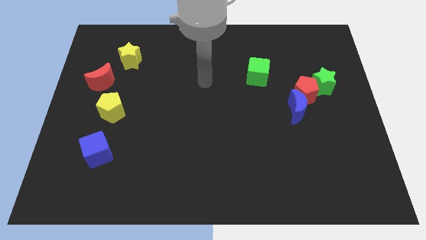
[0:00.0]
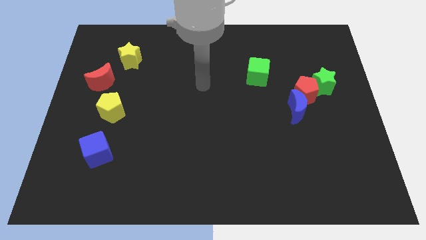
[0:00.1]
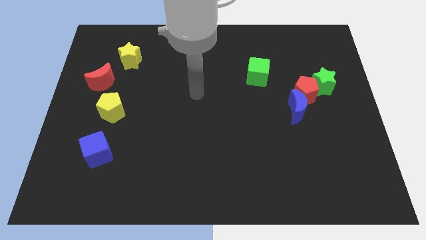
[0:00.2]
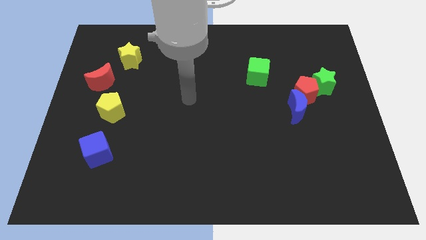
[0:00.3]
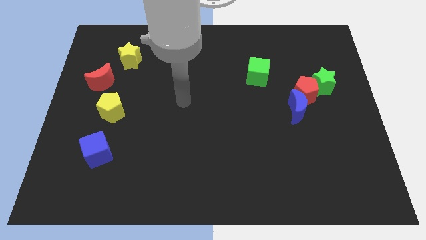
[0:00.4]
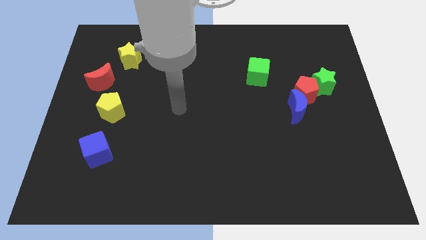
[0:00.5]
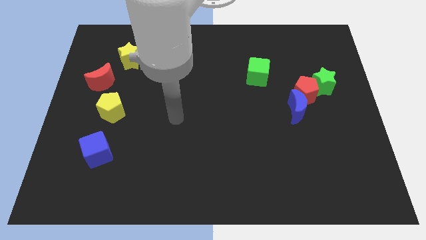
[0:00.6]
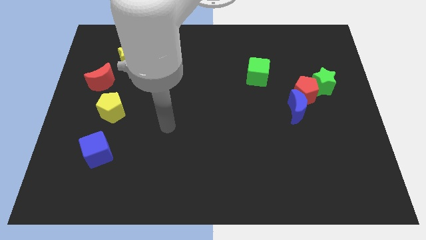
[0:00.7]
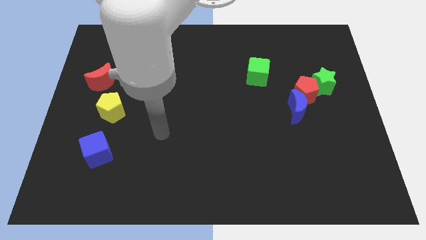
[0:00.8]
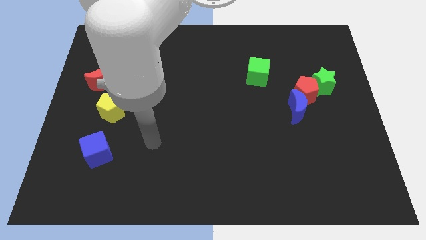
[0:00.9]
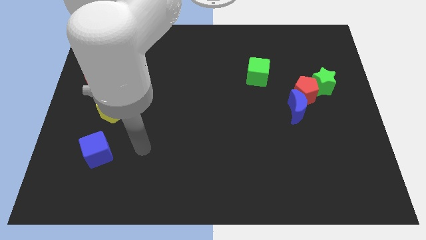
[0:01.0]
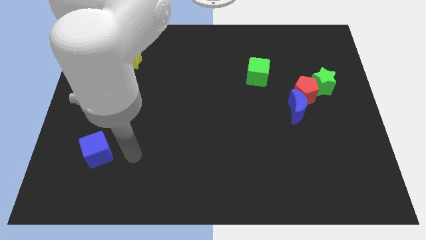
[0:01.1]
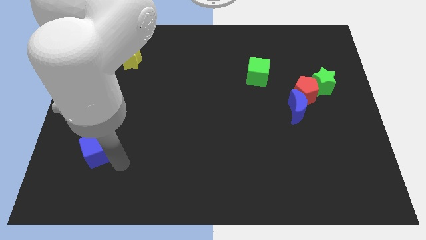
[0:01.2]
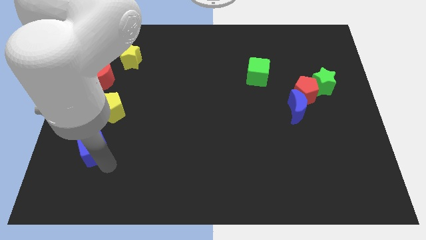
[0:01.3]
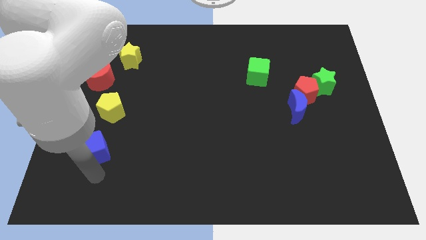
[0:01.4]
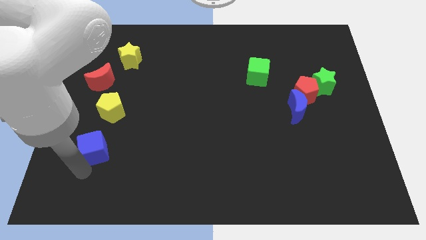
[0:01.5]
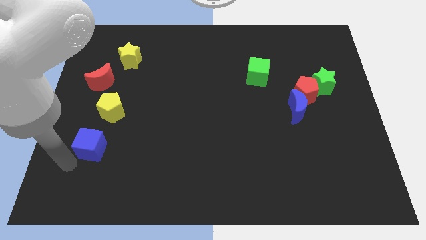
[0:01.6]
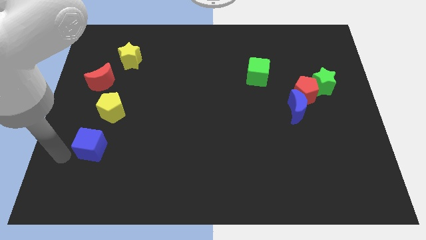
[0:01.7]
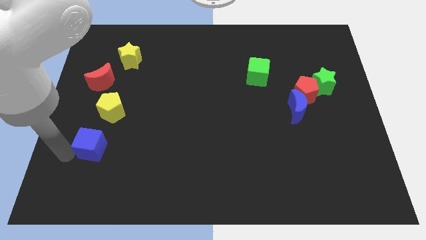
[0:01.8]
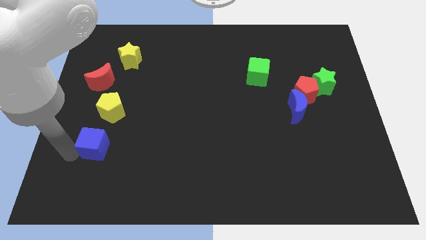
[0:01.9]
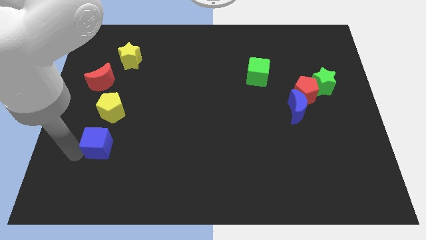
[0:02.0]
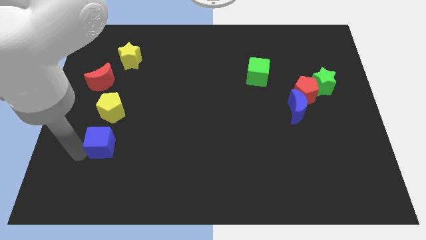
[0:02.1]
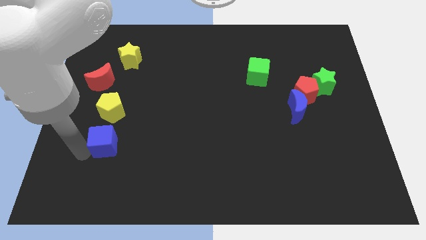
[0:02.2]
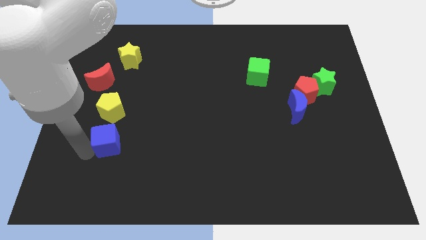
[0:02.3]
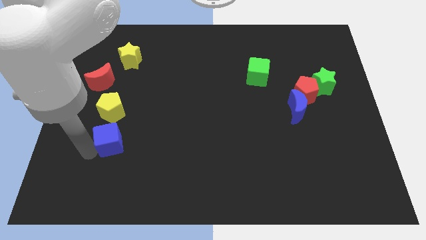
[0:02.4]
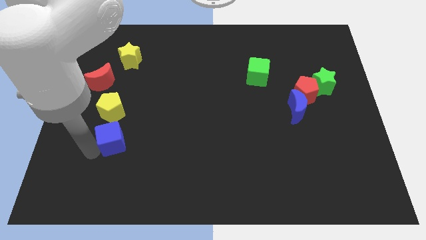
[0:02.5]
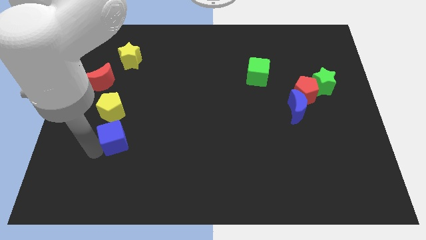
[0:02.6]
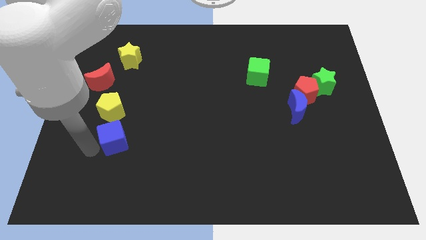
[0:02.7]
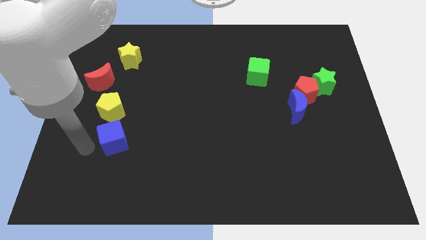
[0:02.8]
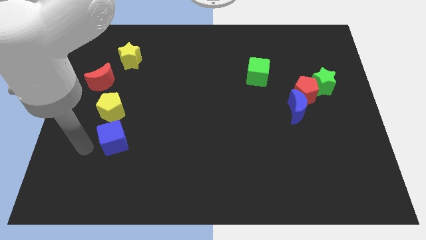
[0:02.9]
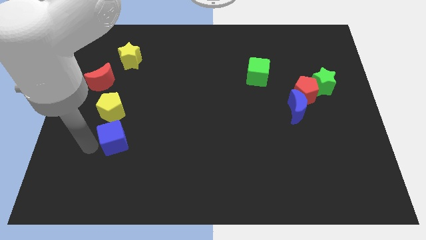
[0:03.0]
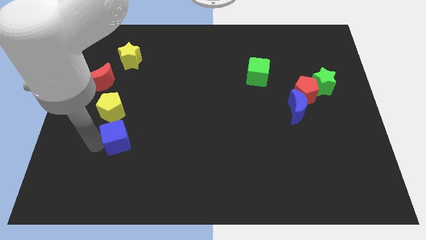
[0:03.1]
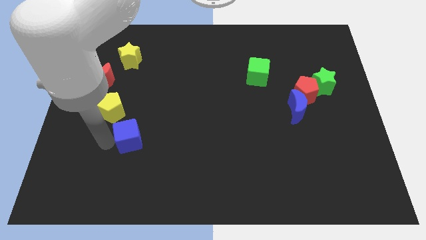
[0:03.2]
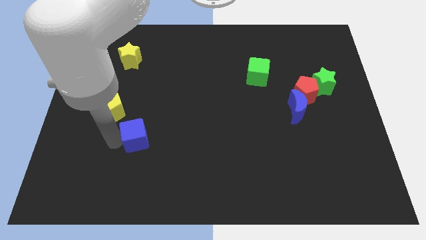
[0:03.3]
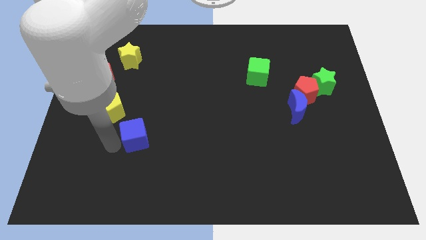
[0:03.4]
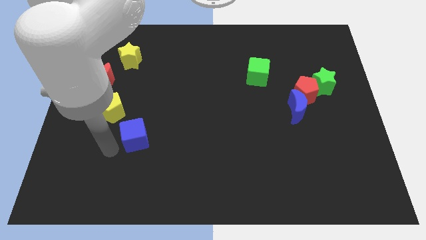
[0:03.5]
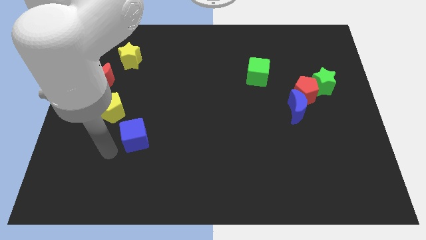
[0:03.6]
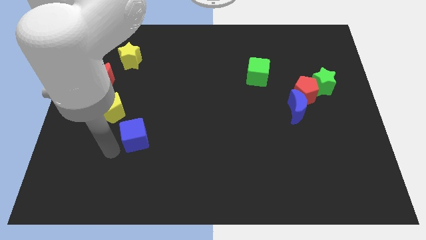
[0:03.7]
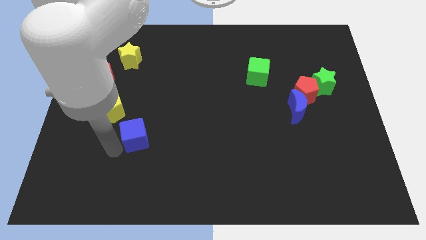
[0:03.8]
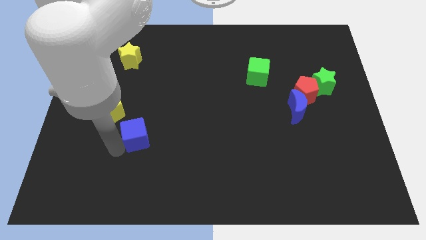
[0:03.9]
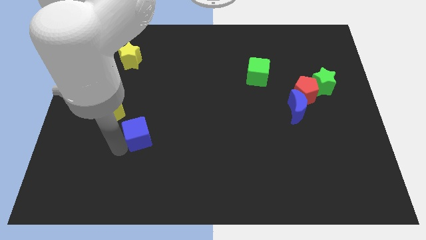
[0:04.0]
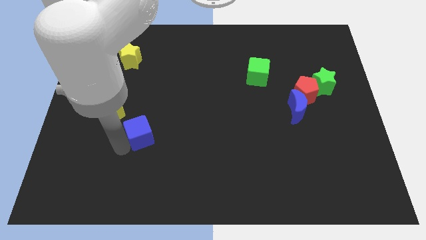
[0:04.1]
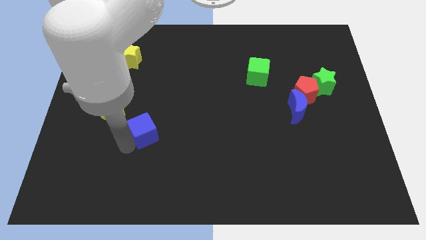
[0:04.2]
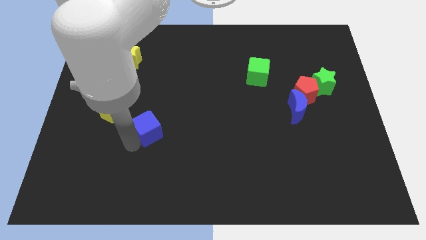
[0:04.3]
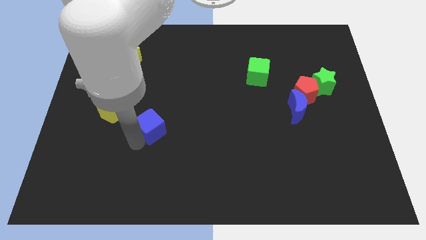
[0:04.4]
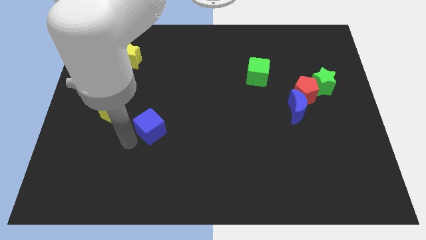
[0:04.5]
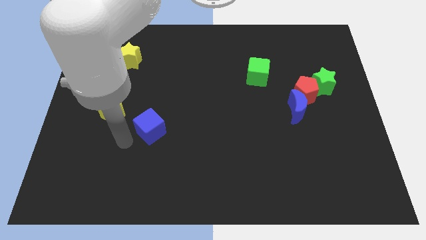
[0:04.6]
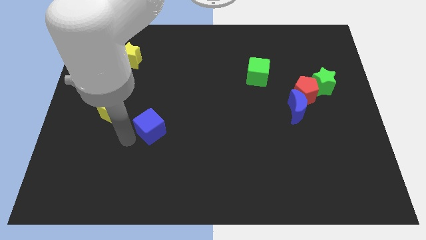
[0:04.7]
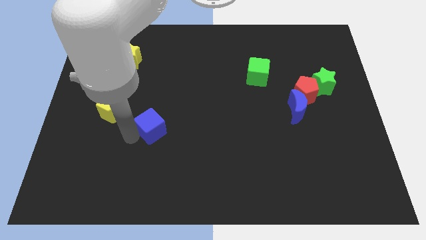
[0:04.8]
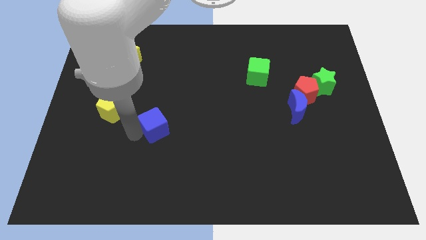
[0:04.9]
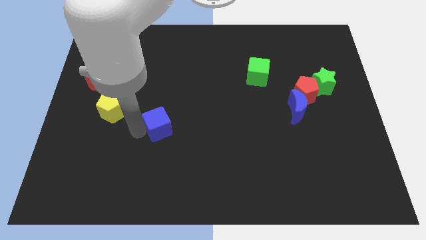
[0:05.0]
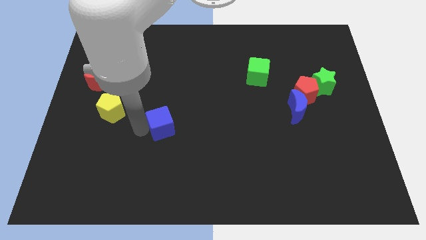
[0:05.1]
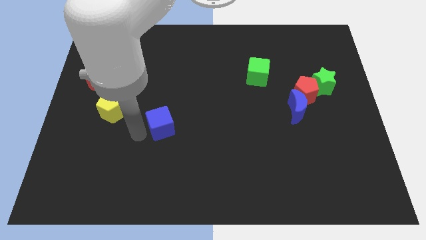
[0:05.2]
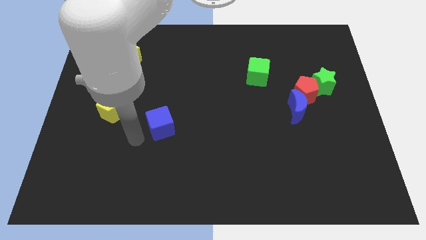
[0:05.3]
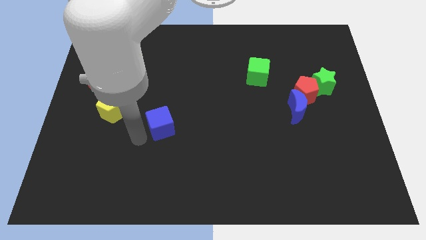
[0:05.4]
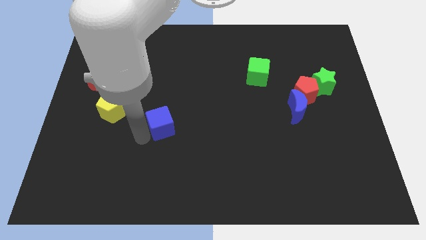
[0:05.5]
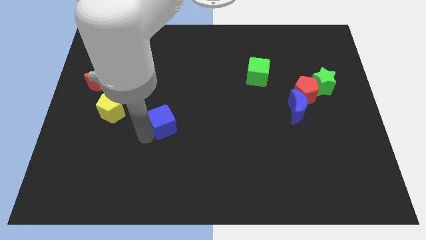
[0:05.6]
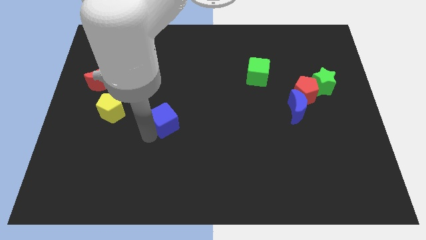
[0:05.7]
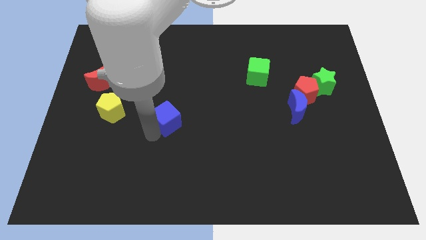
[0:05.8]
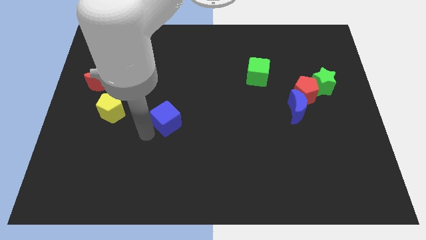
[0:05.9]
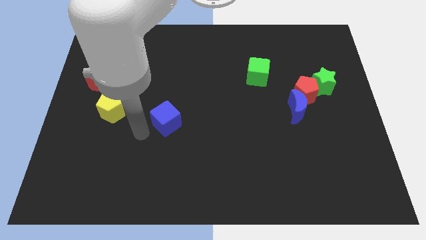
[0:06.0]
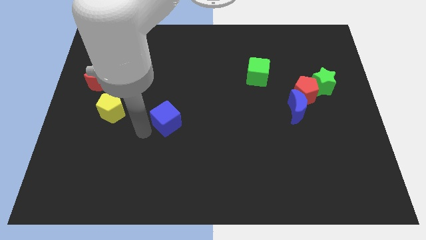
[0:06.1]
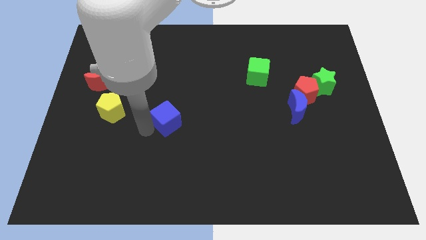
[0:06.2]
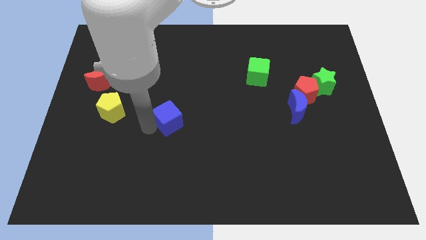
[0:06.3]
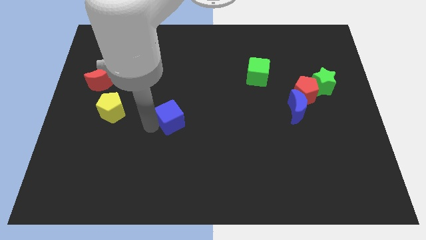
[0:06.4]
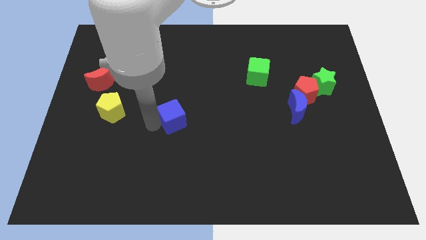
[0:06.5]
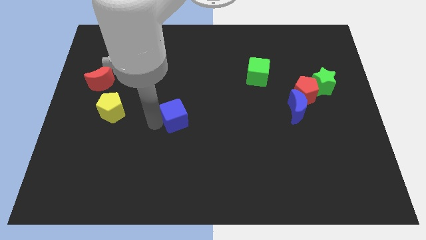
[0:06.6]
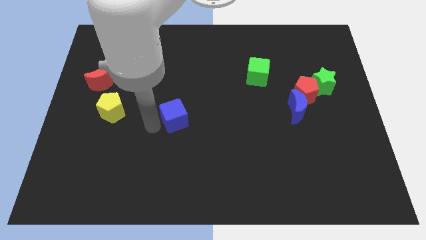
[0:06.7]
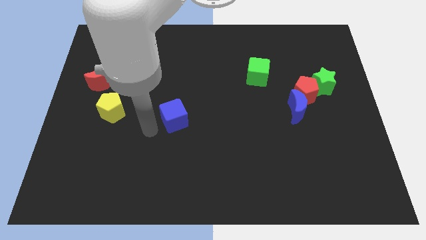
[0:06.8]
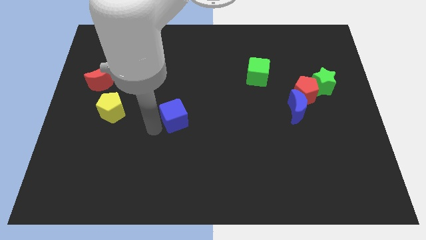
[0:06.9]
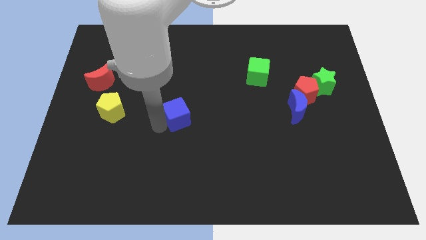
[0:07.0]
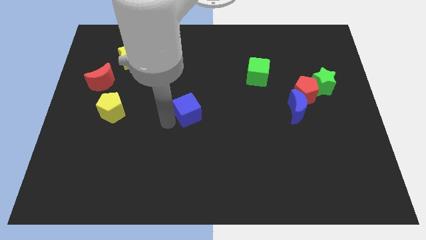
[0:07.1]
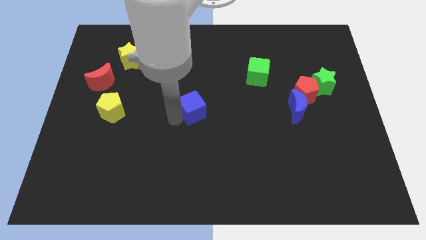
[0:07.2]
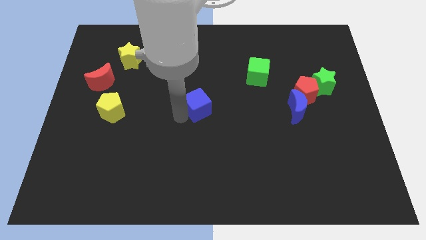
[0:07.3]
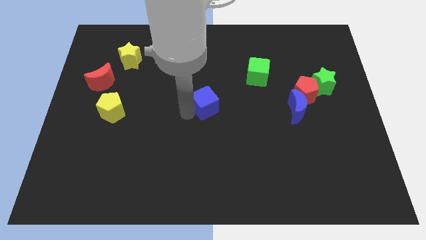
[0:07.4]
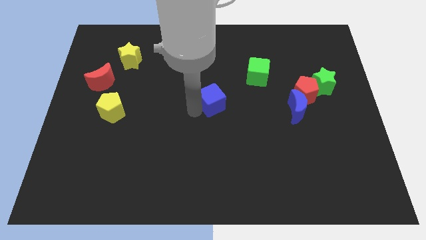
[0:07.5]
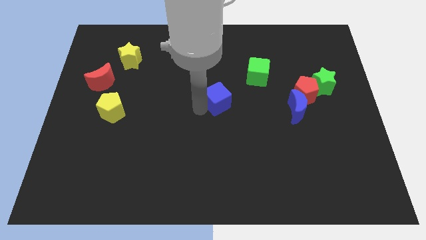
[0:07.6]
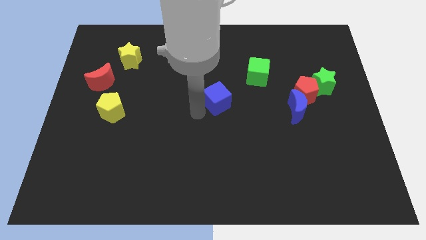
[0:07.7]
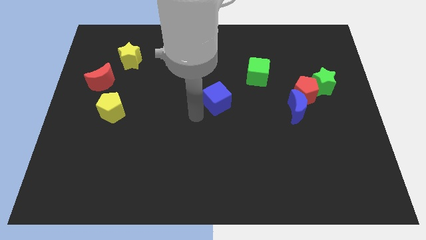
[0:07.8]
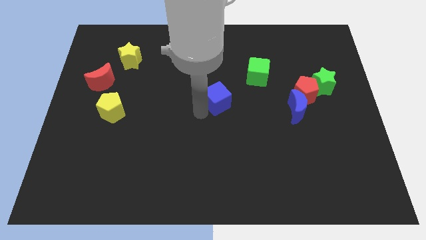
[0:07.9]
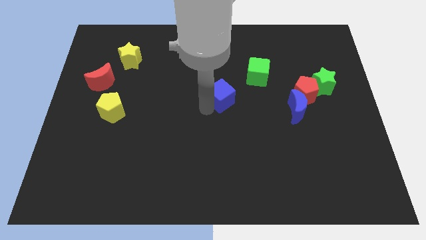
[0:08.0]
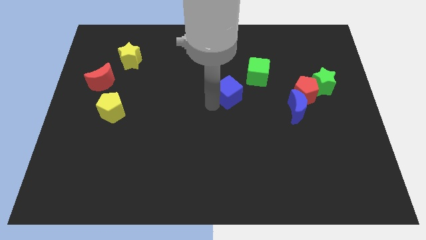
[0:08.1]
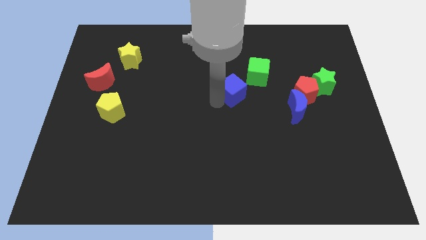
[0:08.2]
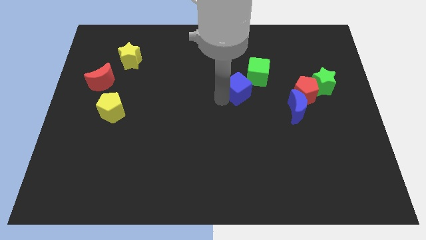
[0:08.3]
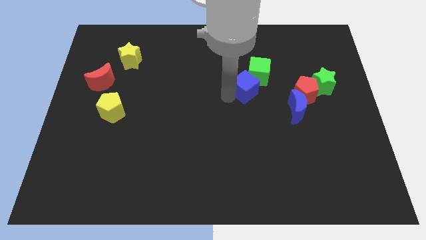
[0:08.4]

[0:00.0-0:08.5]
slide the blue cube next to the green cube
